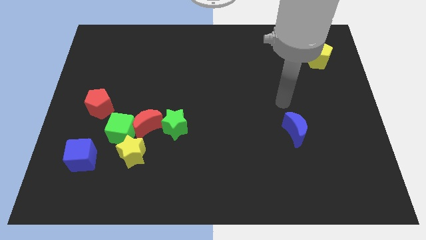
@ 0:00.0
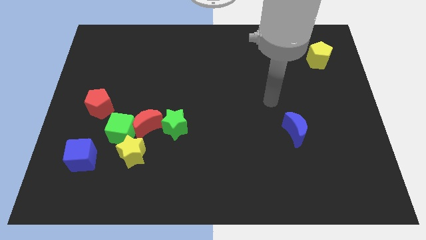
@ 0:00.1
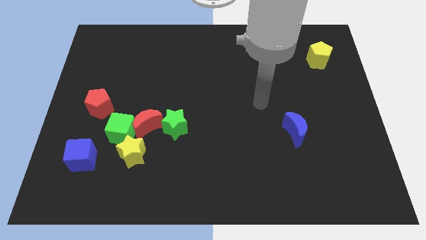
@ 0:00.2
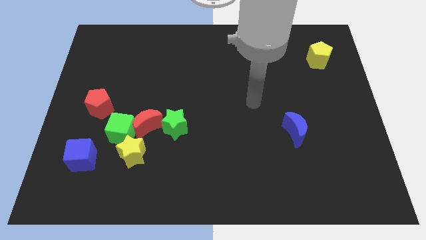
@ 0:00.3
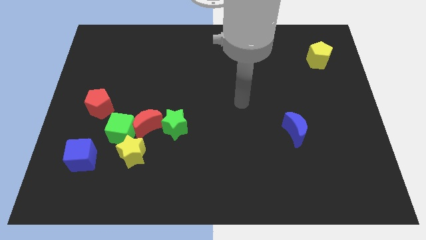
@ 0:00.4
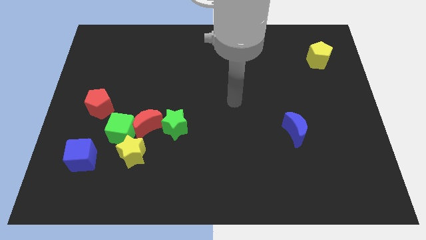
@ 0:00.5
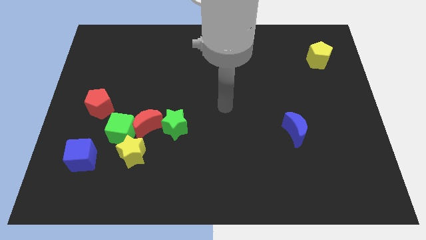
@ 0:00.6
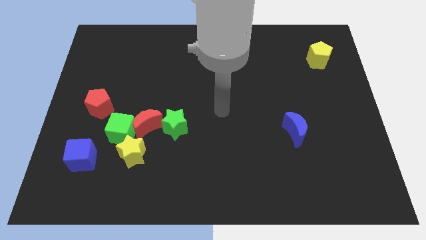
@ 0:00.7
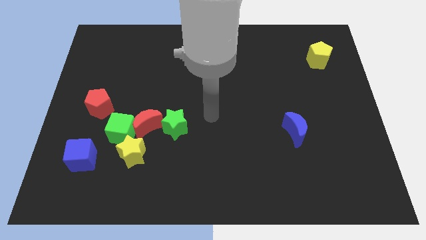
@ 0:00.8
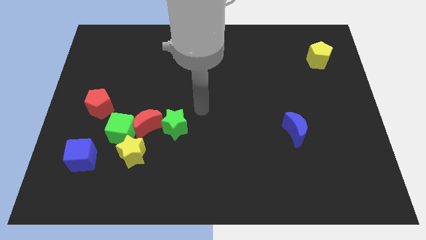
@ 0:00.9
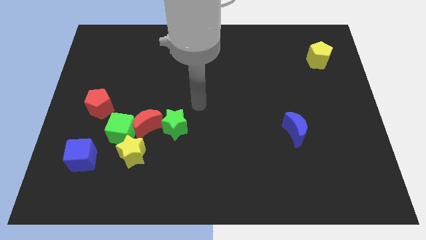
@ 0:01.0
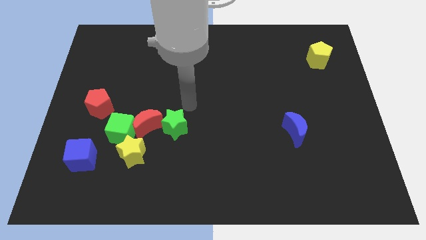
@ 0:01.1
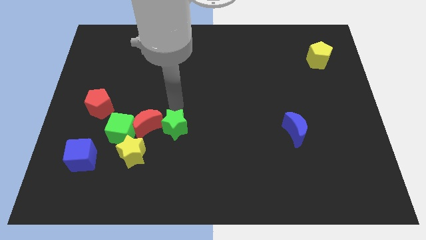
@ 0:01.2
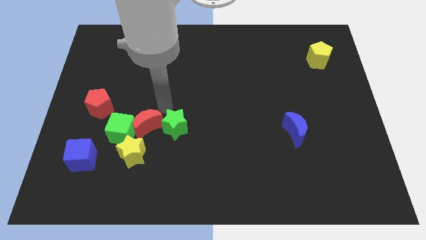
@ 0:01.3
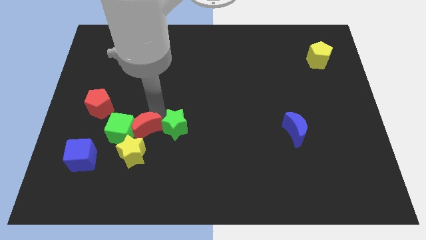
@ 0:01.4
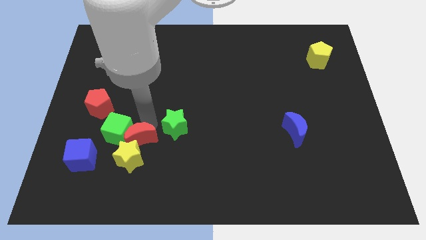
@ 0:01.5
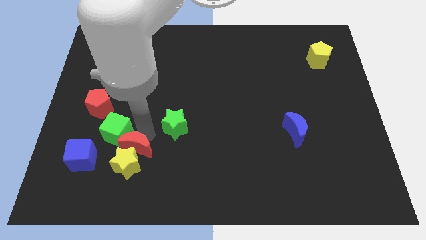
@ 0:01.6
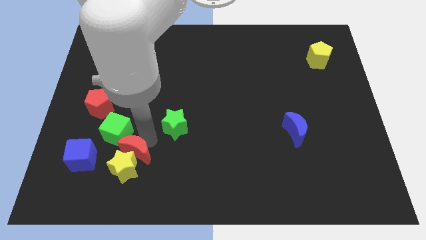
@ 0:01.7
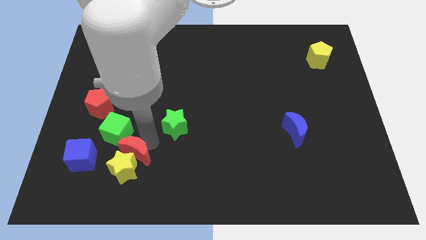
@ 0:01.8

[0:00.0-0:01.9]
move the green star away from the red moon

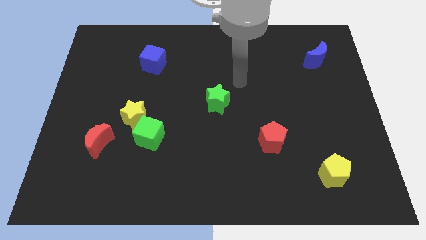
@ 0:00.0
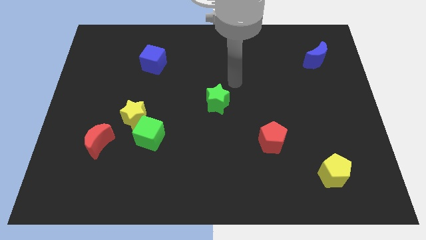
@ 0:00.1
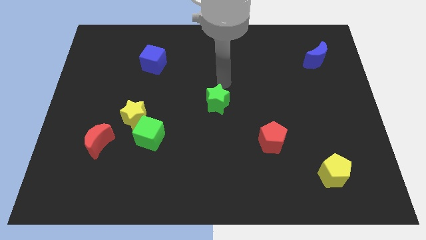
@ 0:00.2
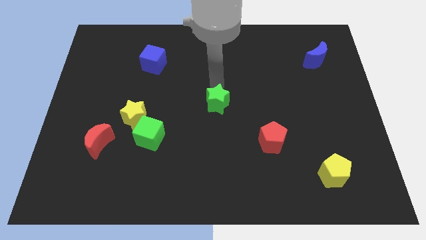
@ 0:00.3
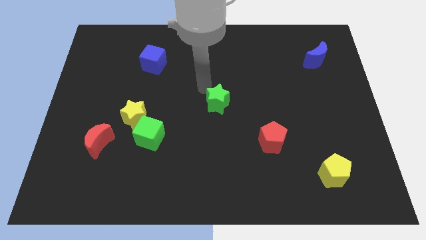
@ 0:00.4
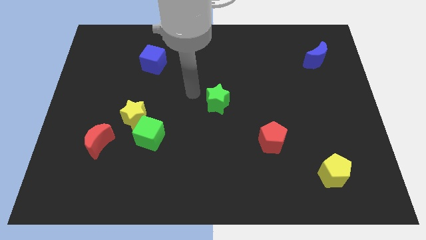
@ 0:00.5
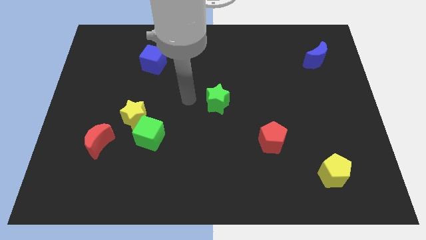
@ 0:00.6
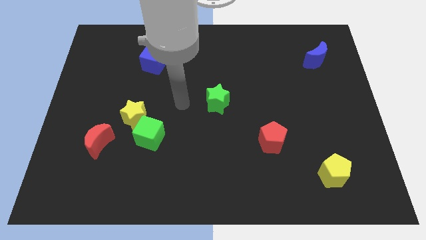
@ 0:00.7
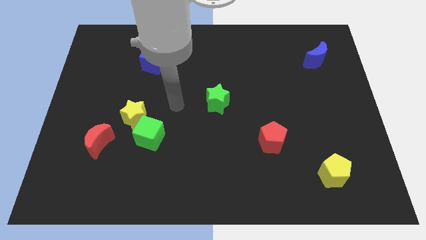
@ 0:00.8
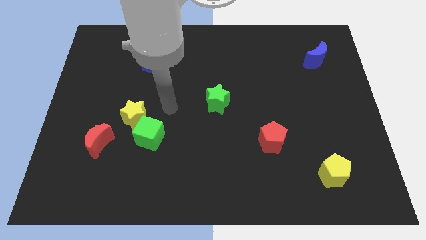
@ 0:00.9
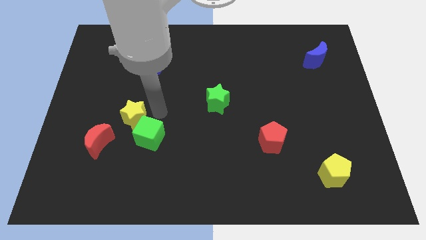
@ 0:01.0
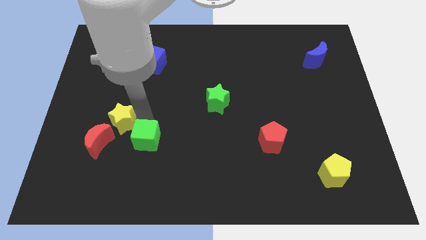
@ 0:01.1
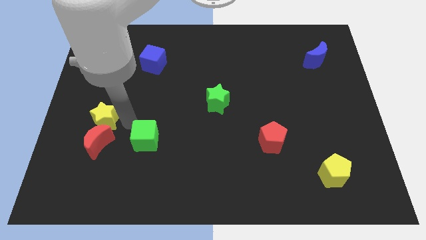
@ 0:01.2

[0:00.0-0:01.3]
separate the green cube from the yellow star

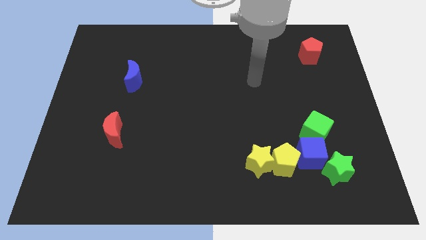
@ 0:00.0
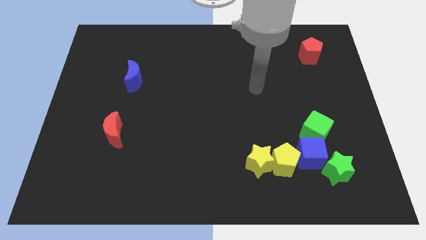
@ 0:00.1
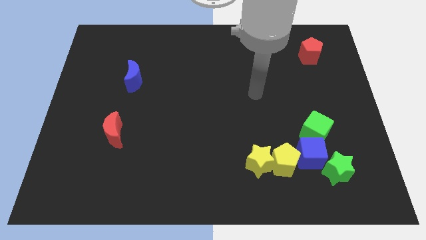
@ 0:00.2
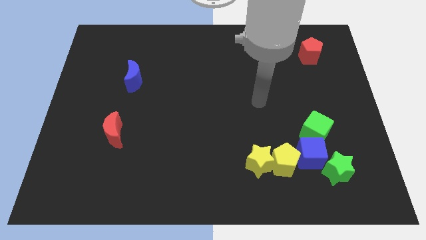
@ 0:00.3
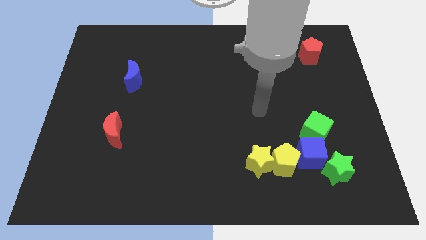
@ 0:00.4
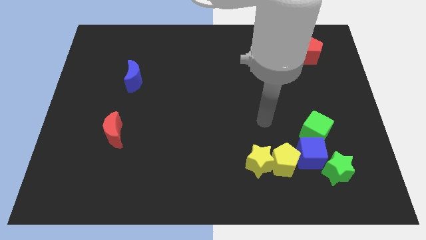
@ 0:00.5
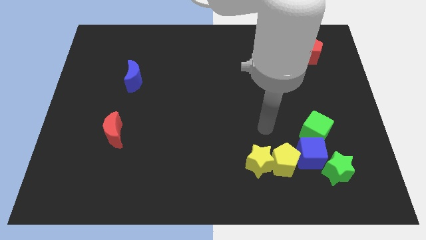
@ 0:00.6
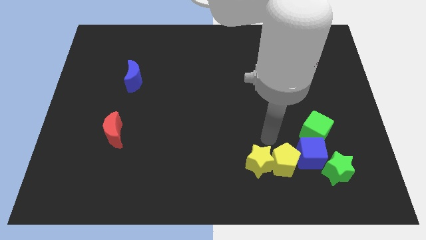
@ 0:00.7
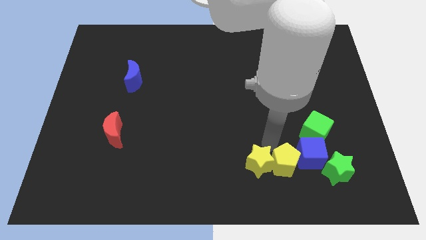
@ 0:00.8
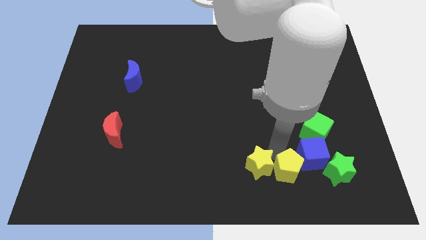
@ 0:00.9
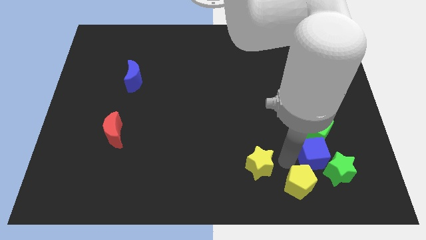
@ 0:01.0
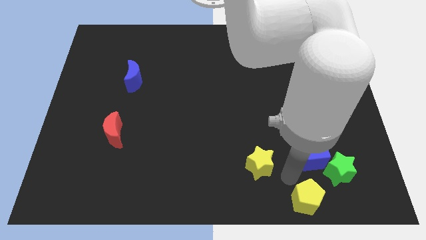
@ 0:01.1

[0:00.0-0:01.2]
move the yellow star away from the yellow pentagon

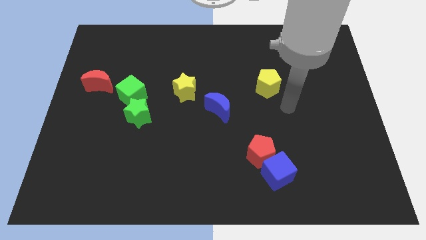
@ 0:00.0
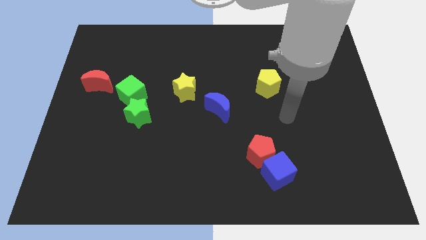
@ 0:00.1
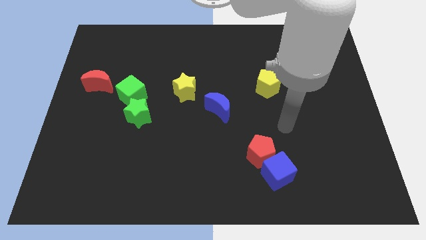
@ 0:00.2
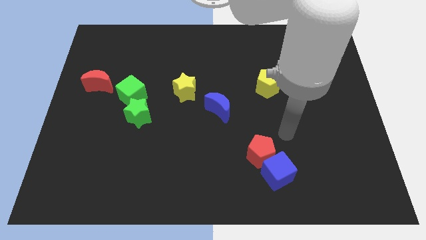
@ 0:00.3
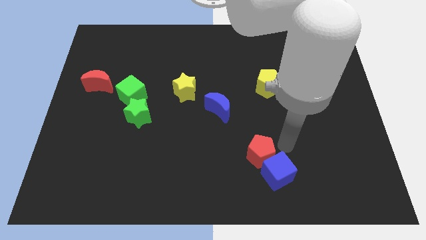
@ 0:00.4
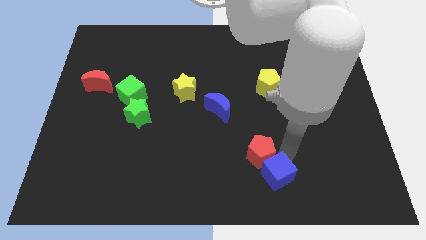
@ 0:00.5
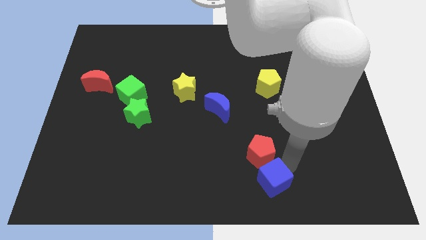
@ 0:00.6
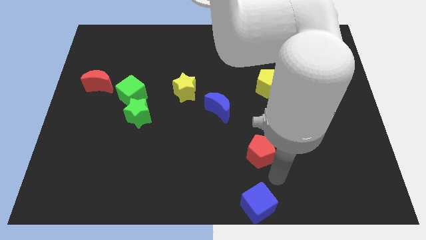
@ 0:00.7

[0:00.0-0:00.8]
move the red pentagon away from the blue cube

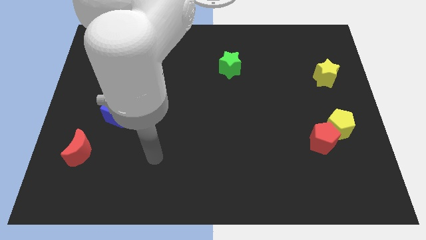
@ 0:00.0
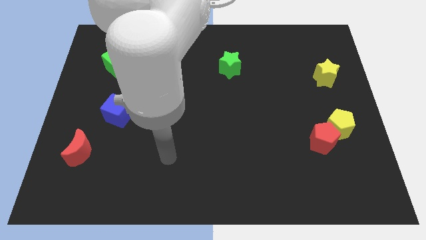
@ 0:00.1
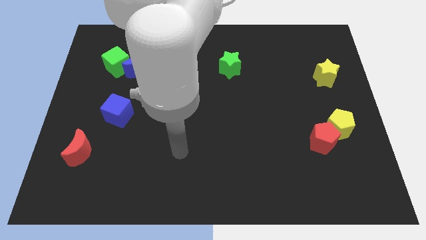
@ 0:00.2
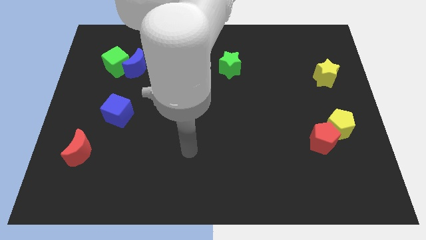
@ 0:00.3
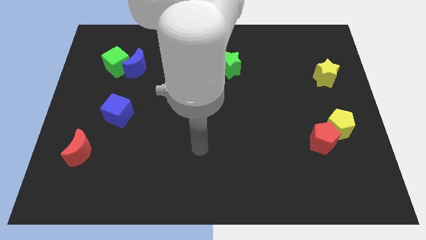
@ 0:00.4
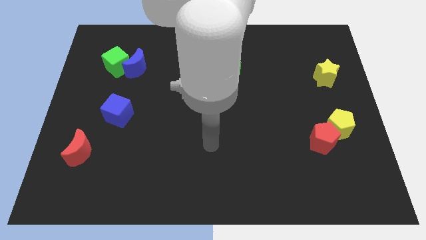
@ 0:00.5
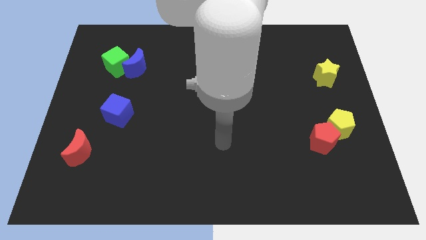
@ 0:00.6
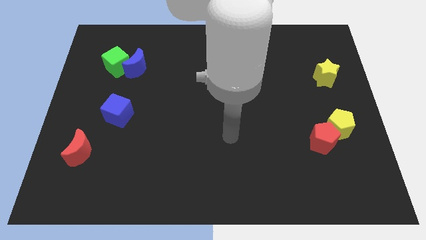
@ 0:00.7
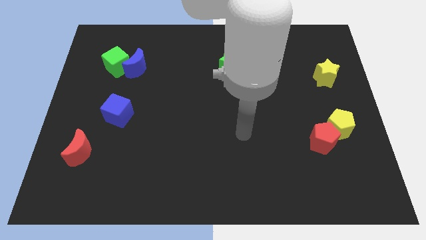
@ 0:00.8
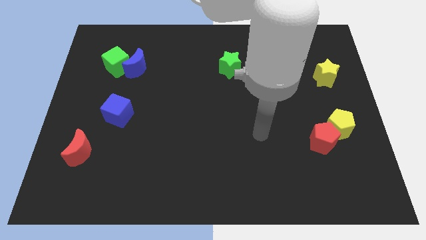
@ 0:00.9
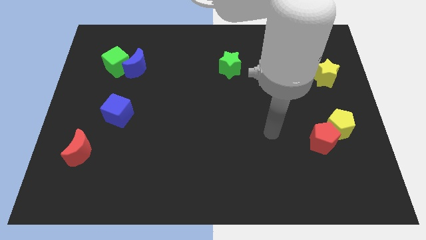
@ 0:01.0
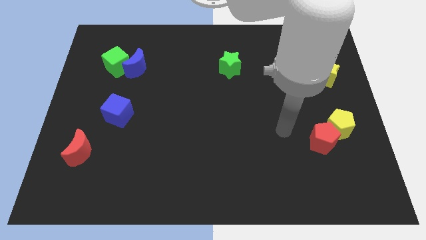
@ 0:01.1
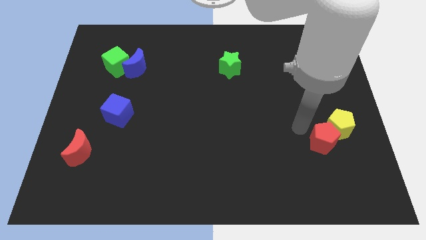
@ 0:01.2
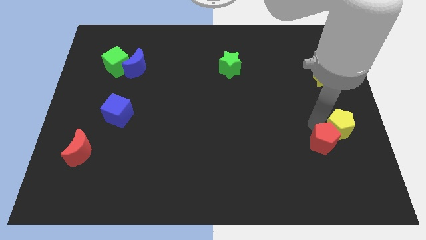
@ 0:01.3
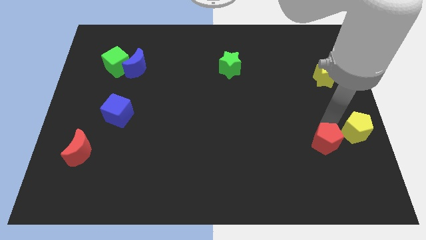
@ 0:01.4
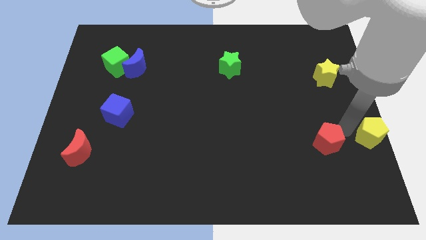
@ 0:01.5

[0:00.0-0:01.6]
pull the red pentagon apart from the yellow pentagon

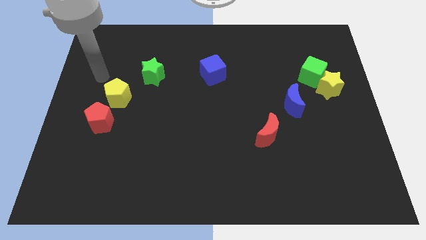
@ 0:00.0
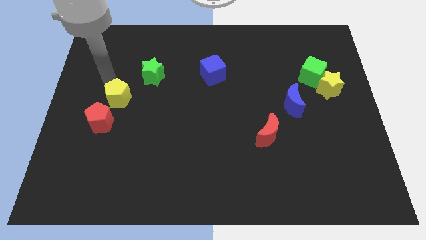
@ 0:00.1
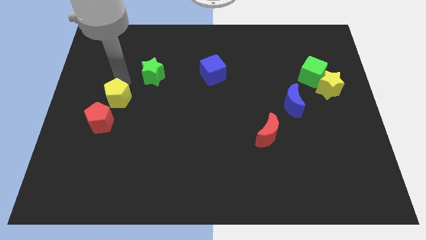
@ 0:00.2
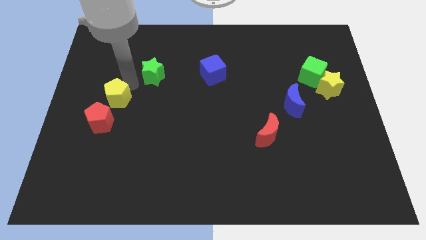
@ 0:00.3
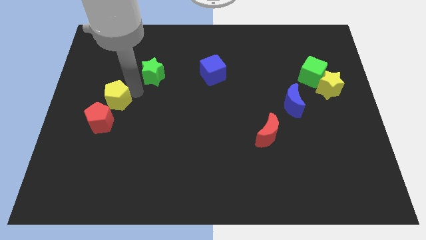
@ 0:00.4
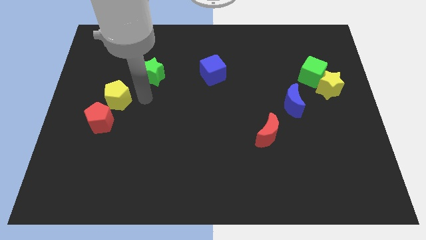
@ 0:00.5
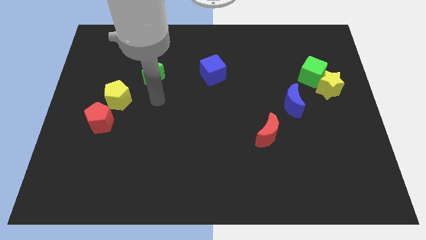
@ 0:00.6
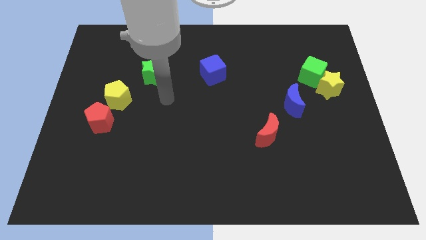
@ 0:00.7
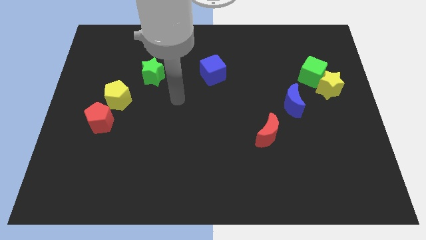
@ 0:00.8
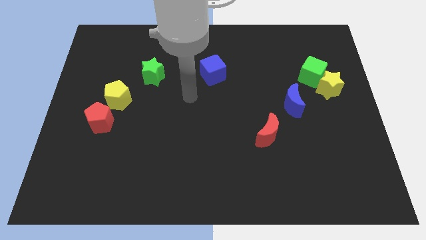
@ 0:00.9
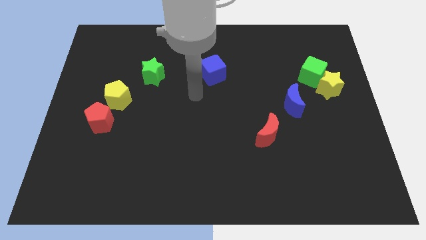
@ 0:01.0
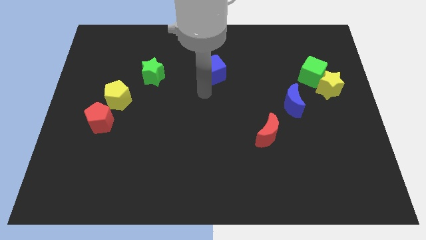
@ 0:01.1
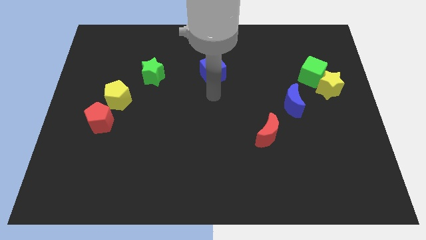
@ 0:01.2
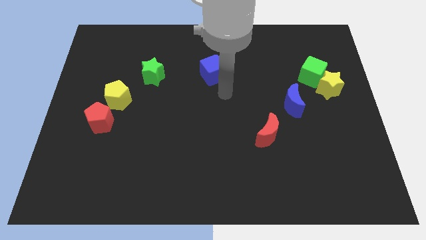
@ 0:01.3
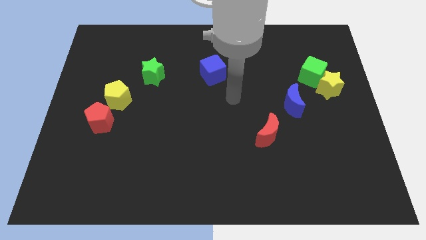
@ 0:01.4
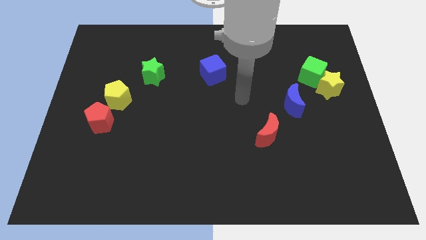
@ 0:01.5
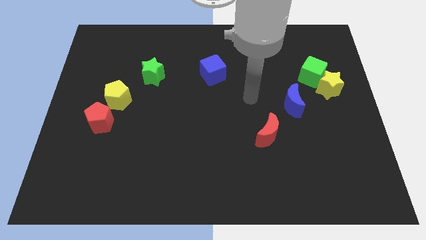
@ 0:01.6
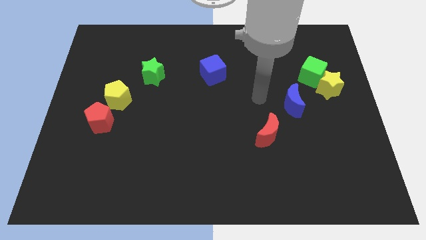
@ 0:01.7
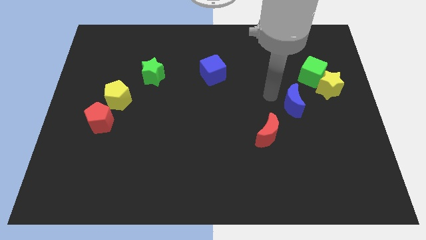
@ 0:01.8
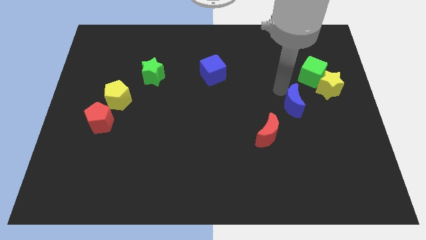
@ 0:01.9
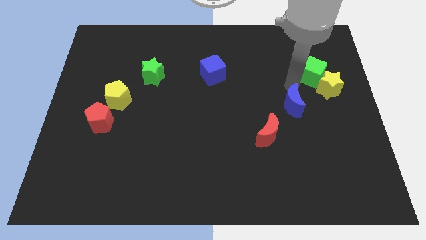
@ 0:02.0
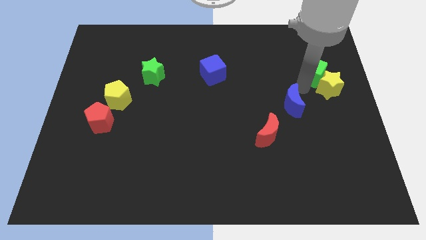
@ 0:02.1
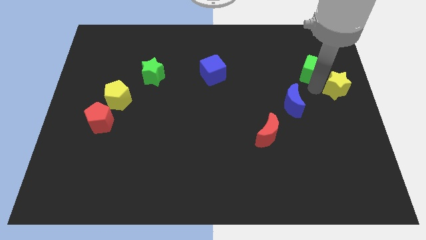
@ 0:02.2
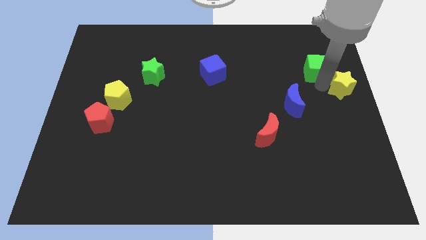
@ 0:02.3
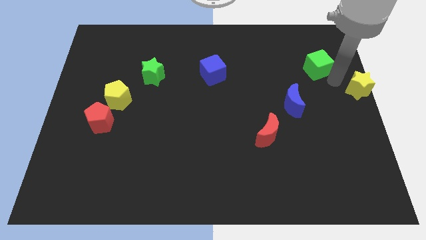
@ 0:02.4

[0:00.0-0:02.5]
move the green cube away from the yellow star
